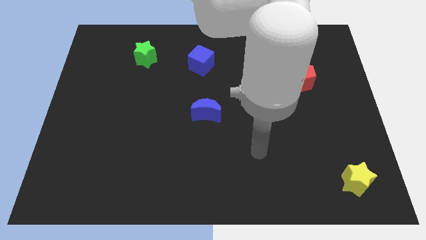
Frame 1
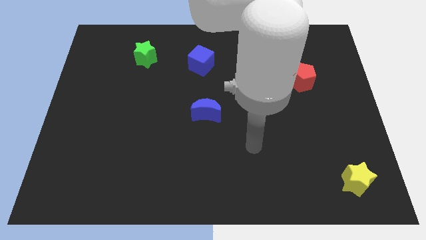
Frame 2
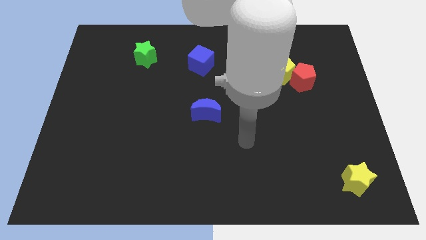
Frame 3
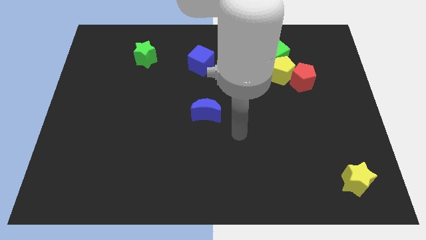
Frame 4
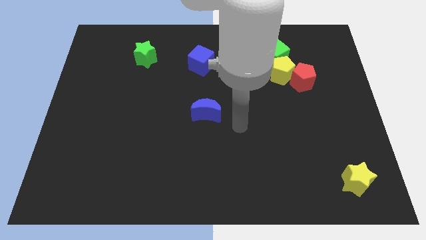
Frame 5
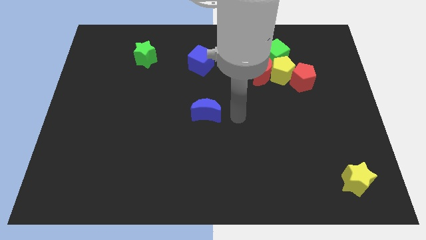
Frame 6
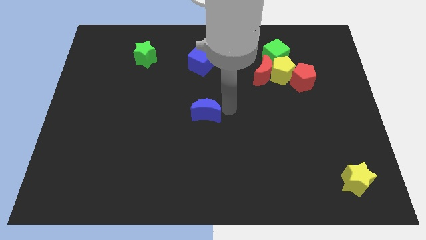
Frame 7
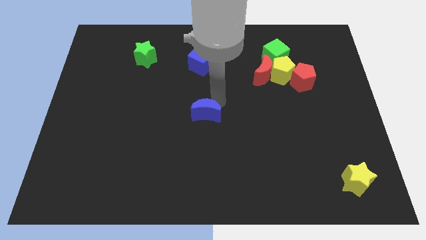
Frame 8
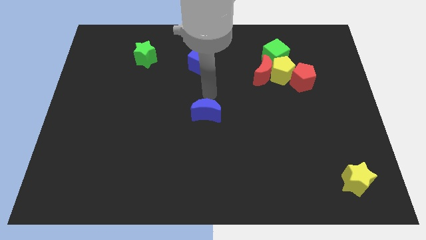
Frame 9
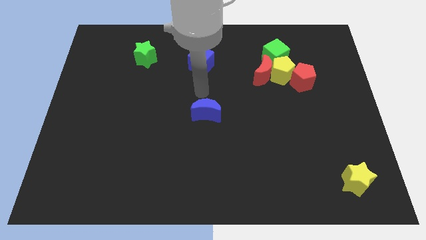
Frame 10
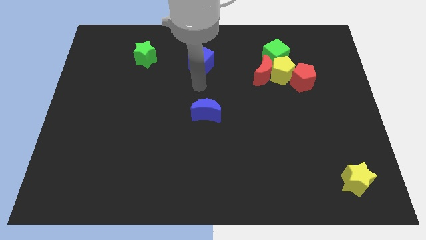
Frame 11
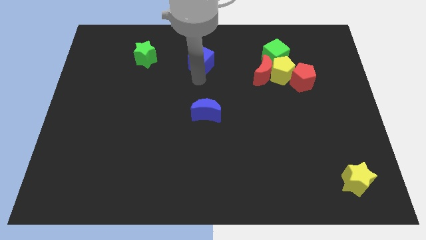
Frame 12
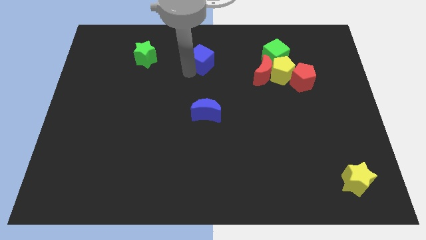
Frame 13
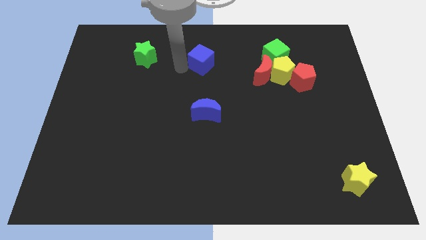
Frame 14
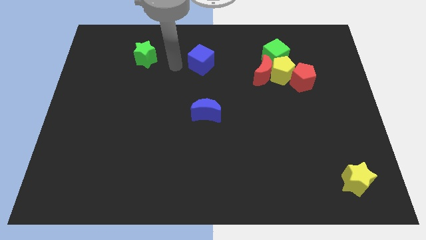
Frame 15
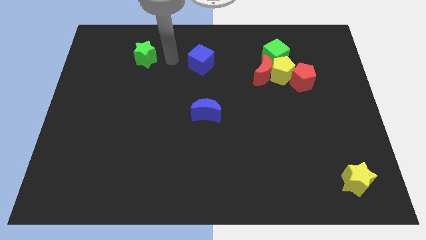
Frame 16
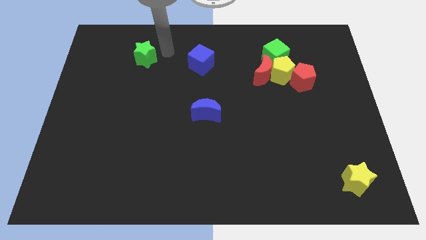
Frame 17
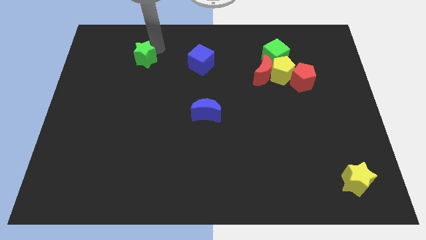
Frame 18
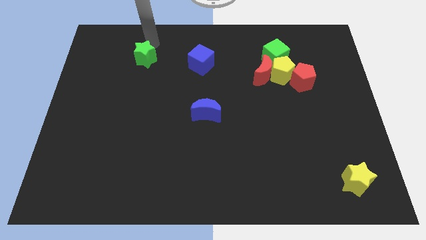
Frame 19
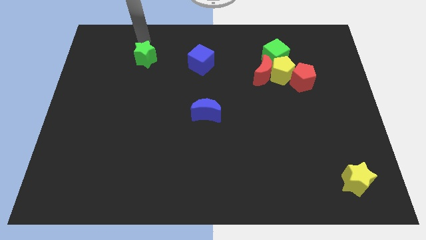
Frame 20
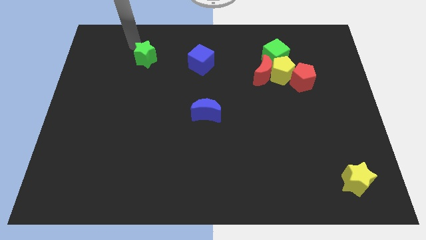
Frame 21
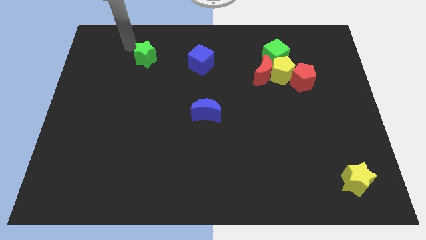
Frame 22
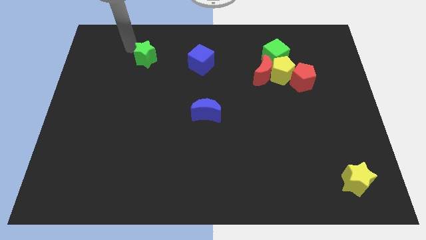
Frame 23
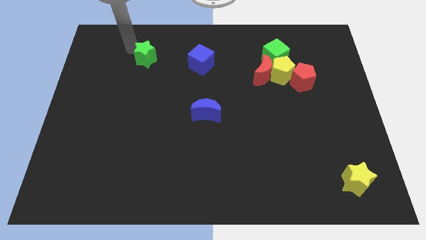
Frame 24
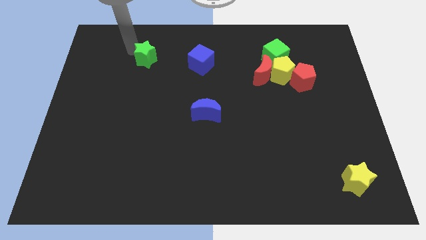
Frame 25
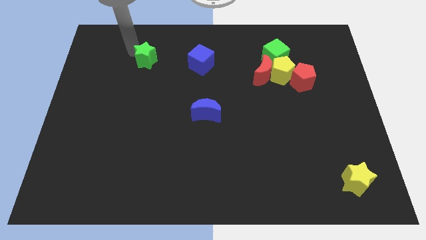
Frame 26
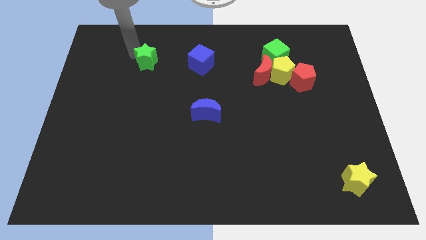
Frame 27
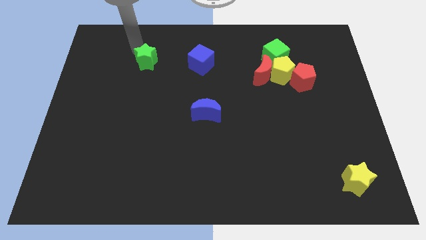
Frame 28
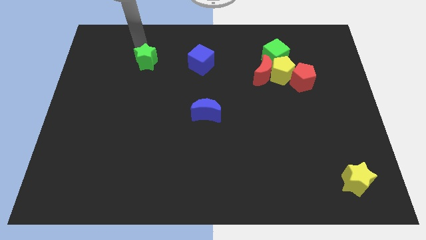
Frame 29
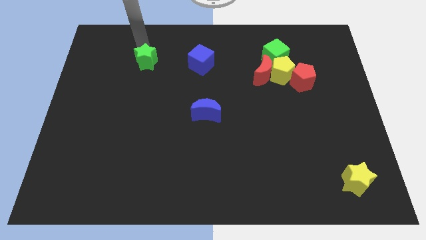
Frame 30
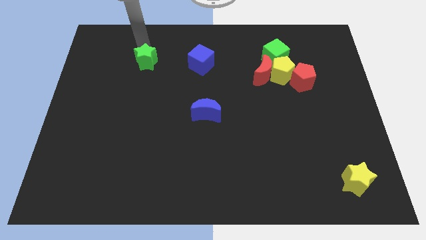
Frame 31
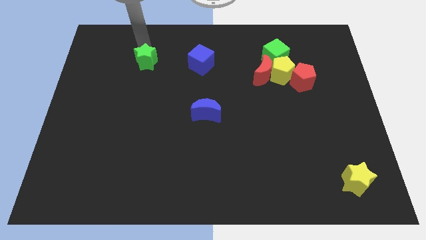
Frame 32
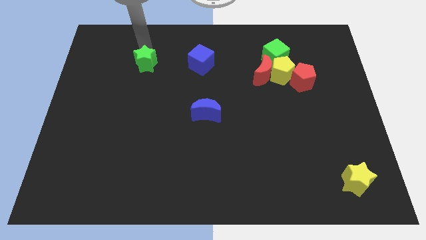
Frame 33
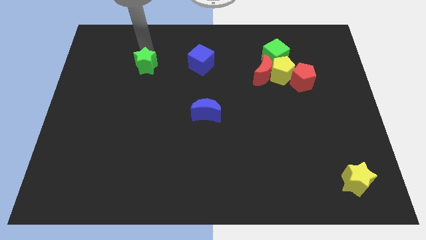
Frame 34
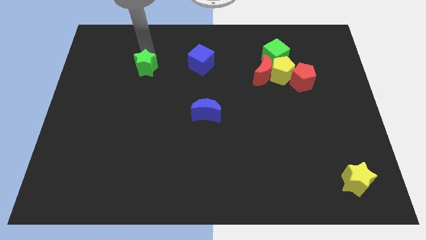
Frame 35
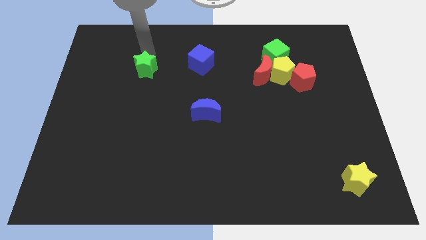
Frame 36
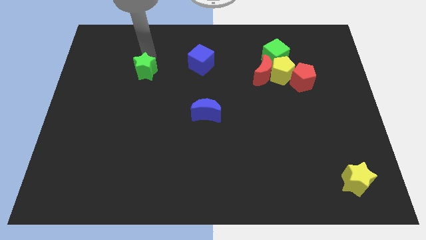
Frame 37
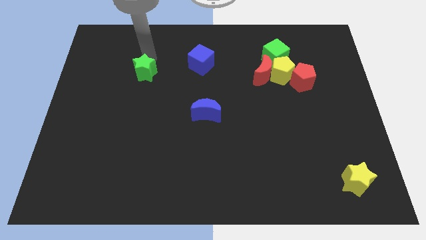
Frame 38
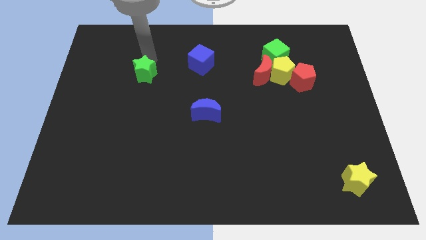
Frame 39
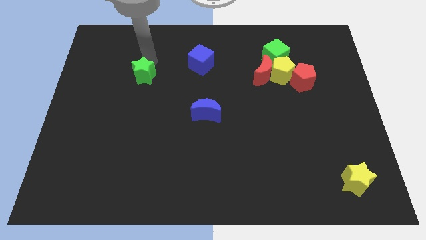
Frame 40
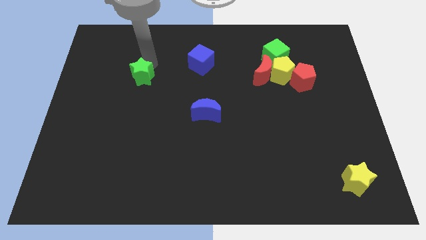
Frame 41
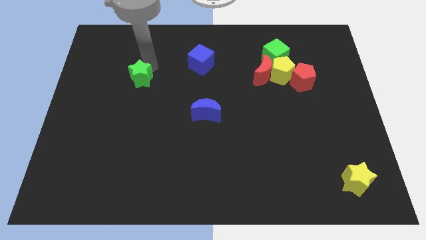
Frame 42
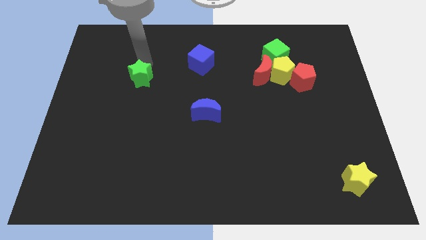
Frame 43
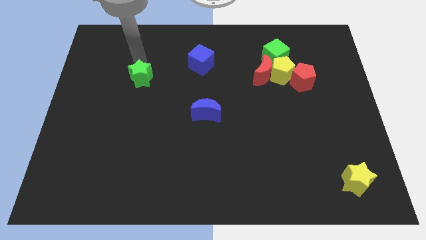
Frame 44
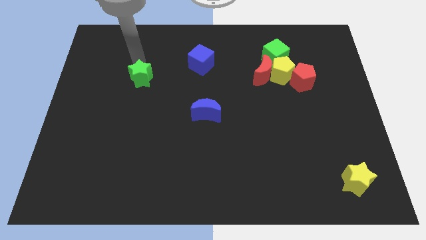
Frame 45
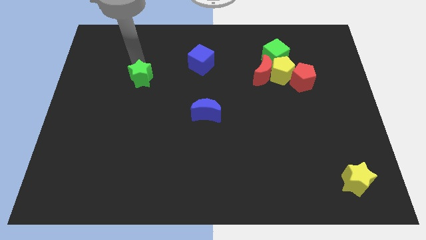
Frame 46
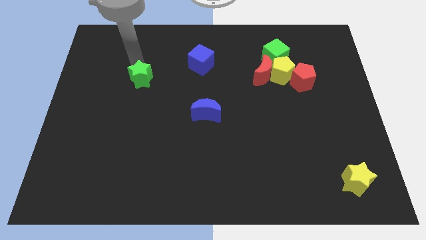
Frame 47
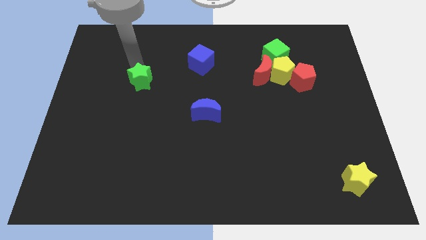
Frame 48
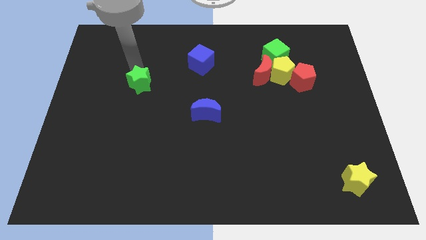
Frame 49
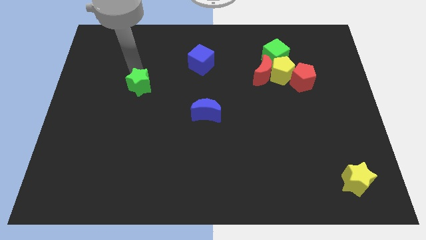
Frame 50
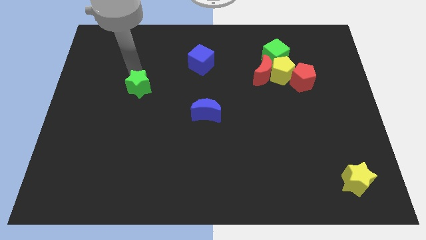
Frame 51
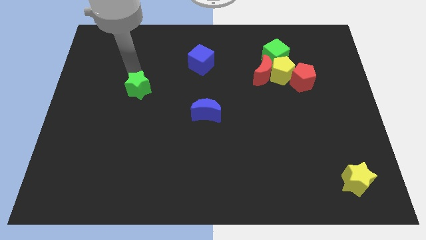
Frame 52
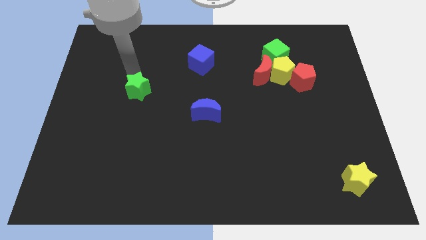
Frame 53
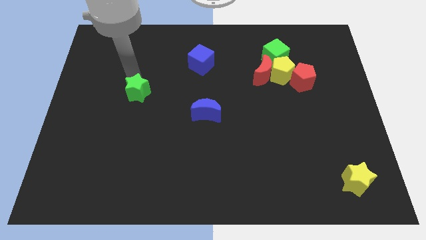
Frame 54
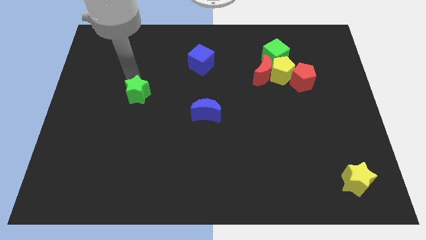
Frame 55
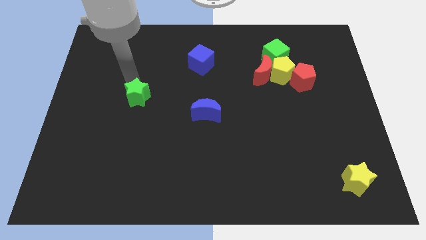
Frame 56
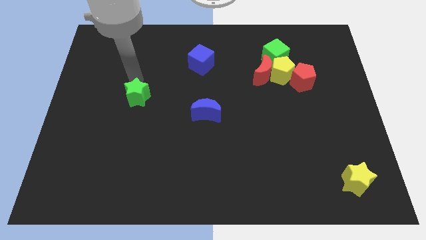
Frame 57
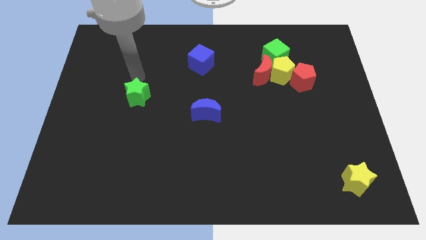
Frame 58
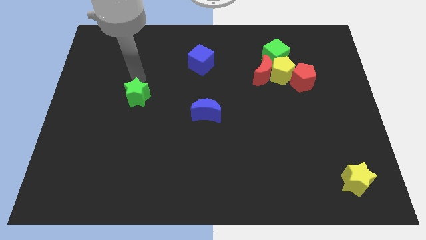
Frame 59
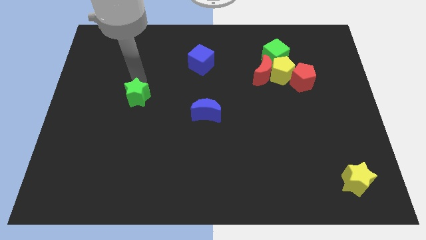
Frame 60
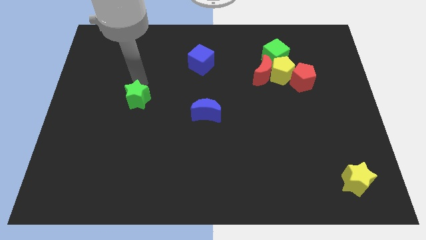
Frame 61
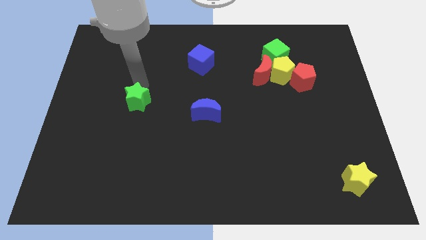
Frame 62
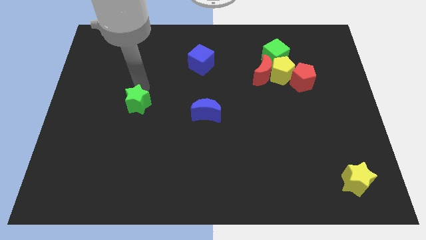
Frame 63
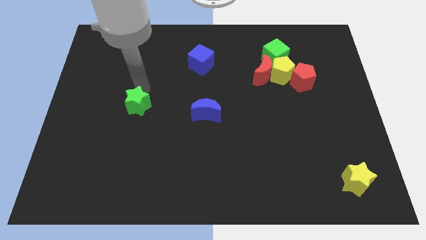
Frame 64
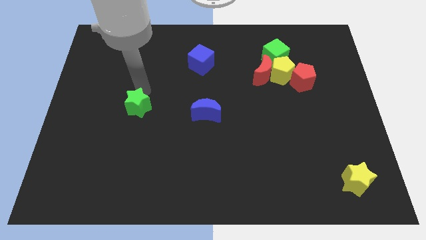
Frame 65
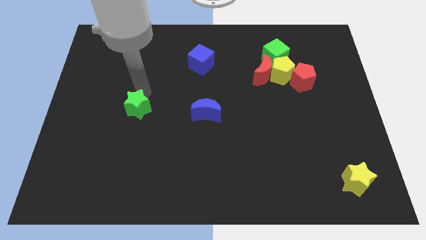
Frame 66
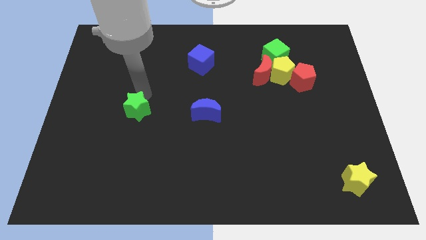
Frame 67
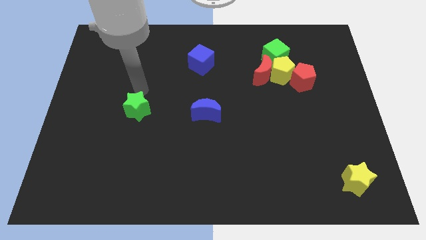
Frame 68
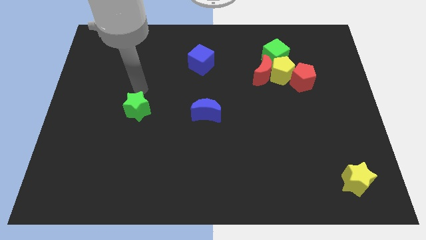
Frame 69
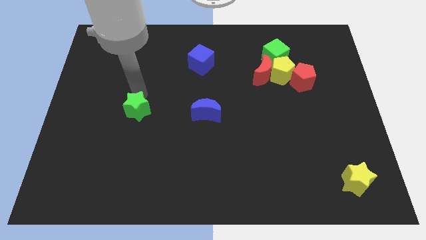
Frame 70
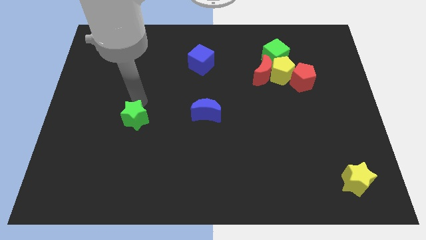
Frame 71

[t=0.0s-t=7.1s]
move the green star downwards

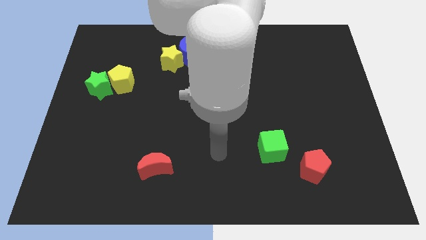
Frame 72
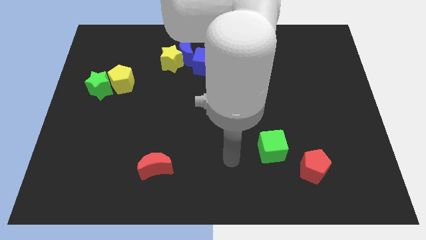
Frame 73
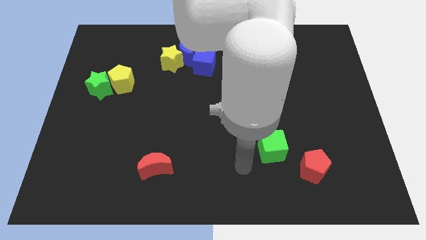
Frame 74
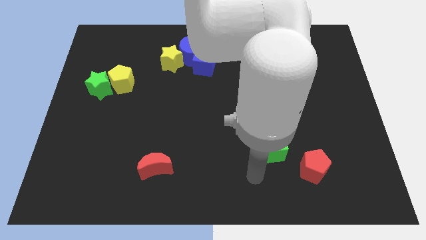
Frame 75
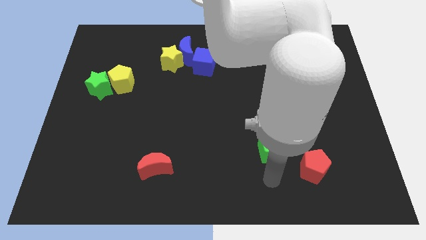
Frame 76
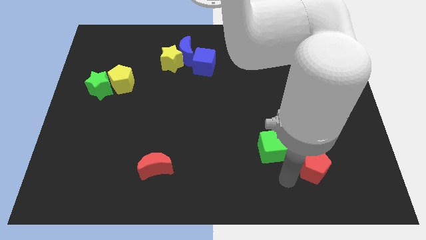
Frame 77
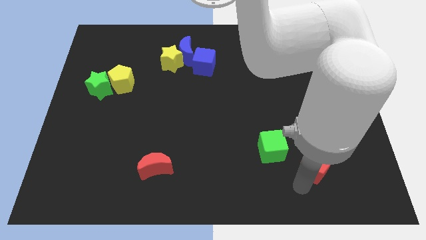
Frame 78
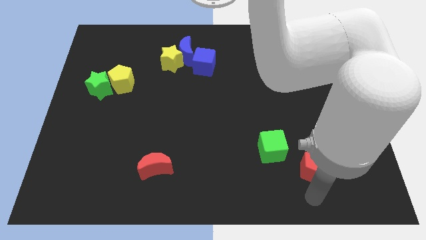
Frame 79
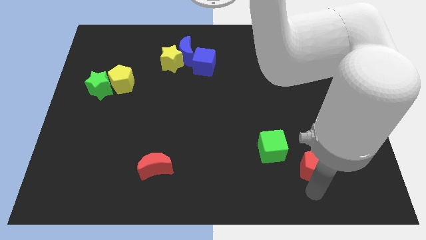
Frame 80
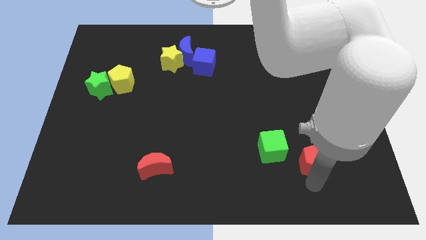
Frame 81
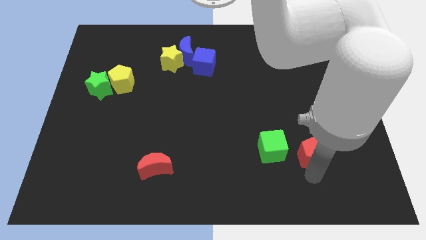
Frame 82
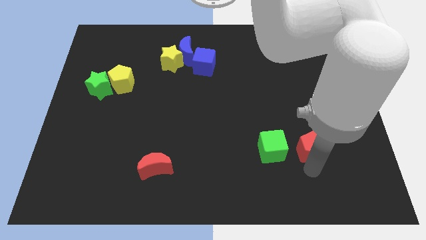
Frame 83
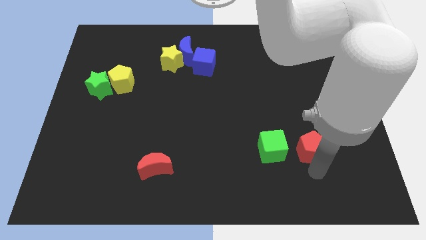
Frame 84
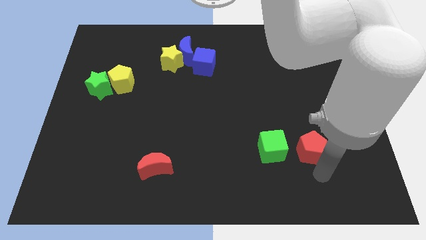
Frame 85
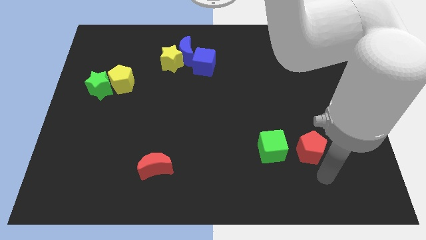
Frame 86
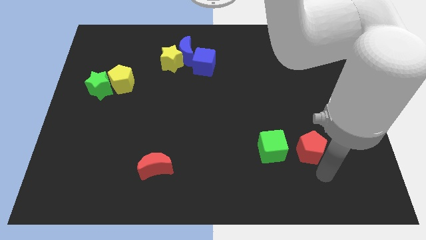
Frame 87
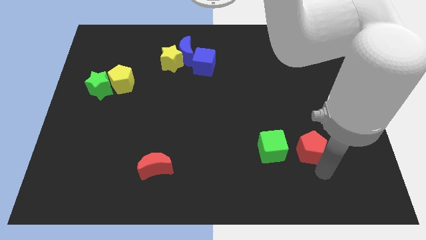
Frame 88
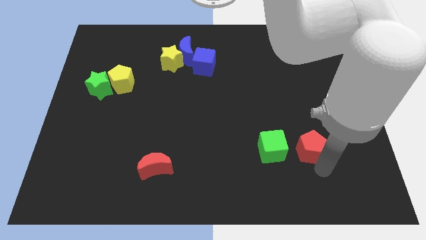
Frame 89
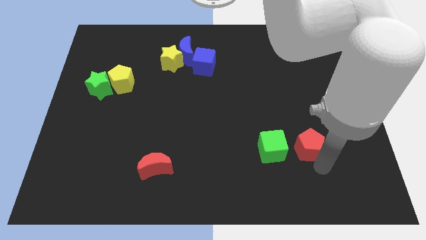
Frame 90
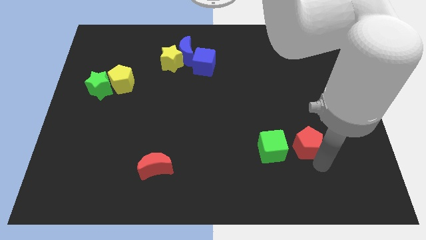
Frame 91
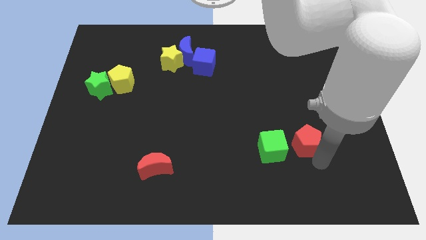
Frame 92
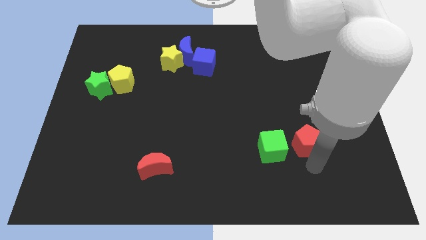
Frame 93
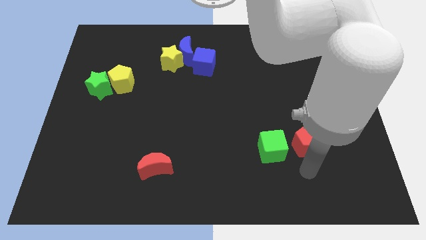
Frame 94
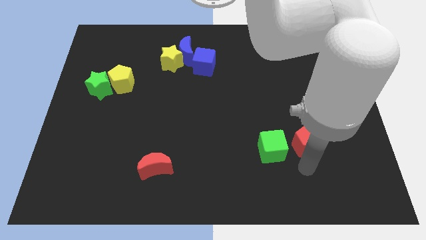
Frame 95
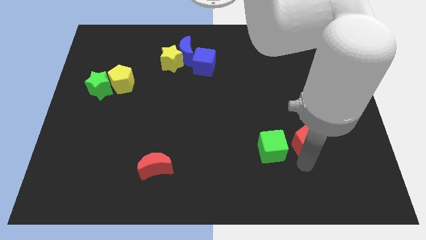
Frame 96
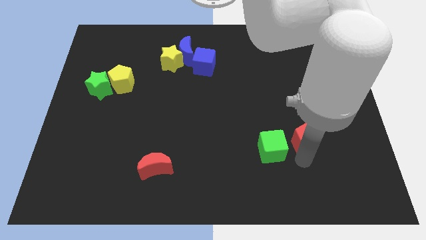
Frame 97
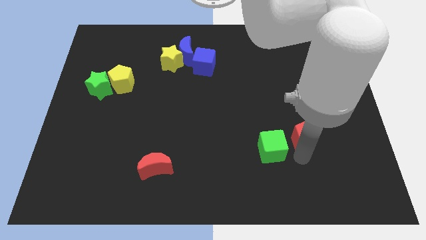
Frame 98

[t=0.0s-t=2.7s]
push the red pentagon a little bit up
